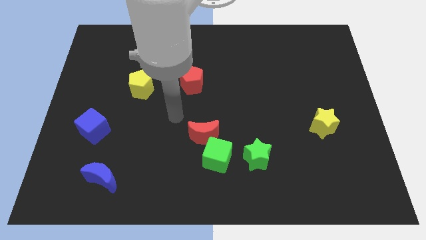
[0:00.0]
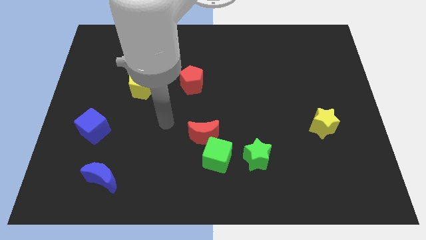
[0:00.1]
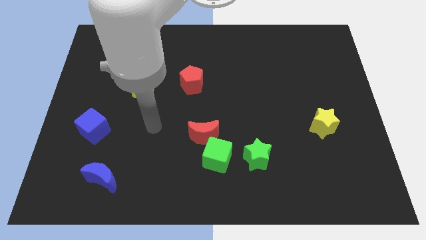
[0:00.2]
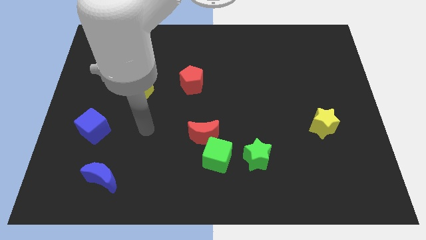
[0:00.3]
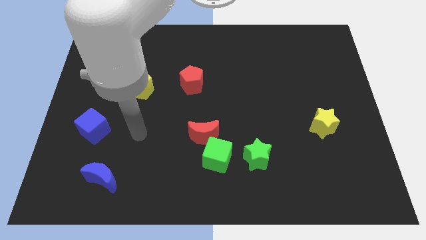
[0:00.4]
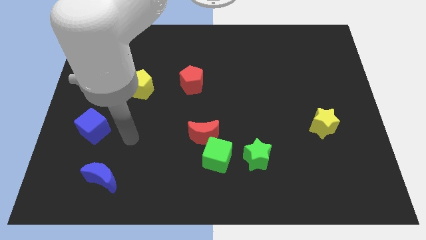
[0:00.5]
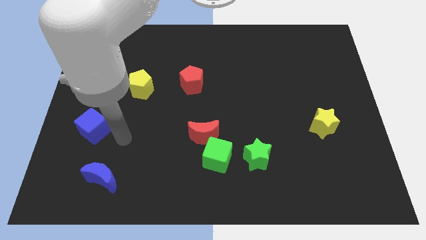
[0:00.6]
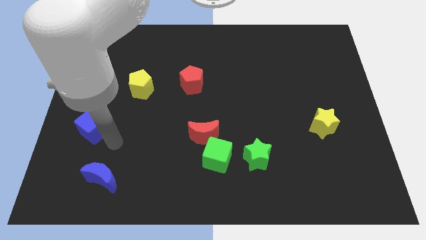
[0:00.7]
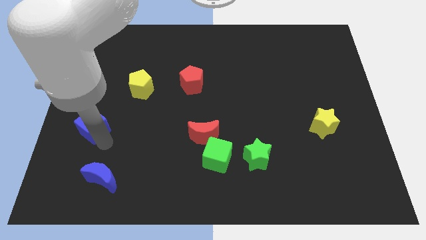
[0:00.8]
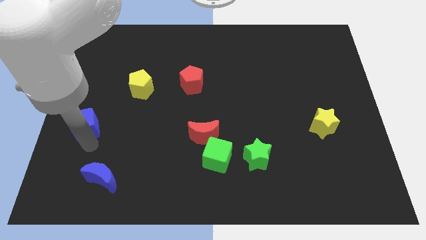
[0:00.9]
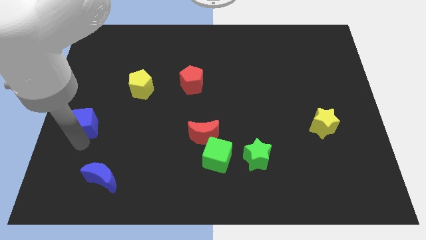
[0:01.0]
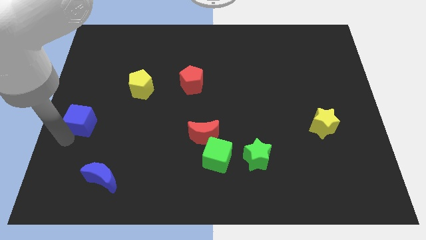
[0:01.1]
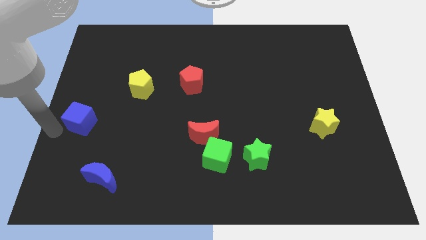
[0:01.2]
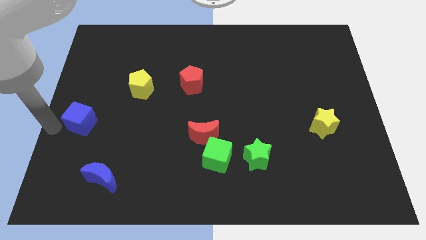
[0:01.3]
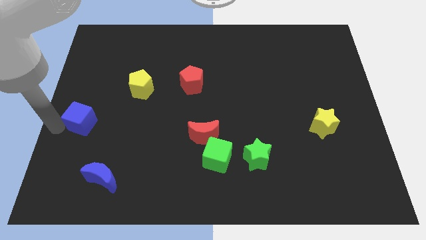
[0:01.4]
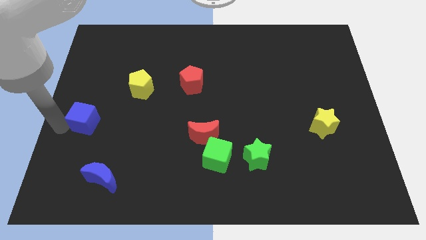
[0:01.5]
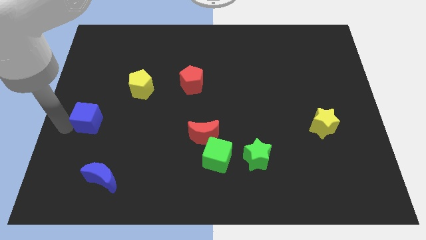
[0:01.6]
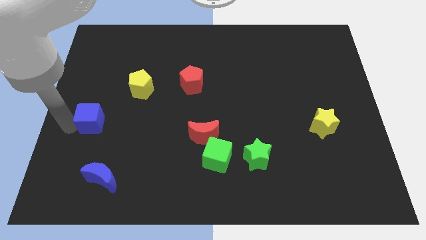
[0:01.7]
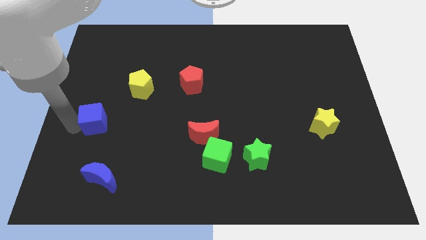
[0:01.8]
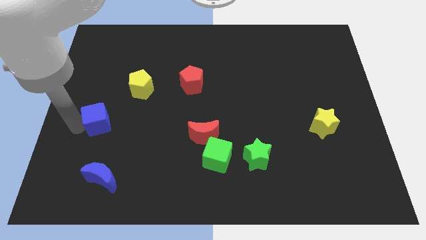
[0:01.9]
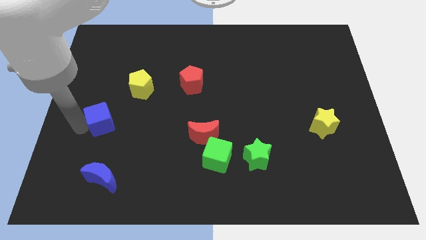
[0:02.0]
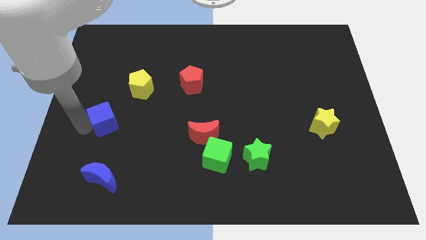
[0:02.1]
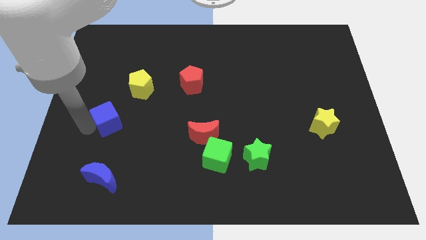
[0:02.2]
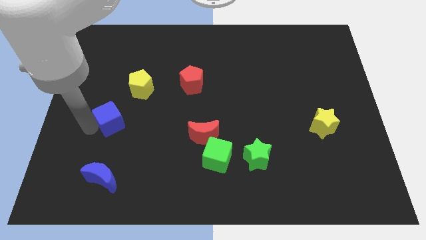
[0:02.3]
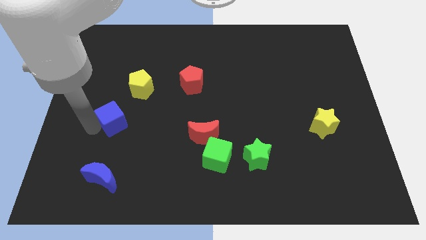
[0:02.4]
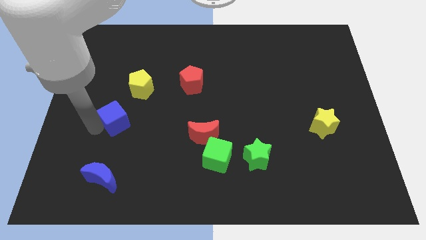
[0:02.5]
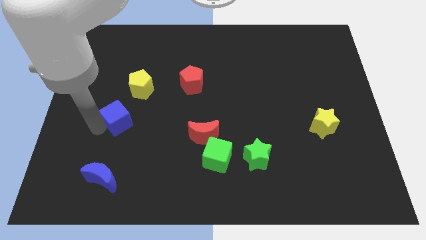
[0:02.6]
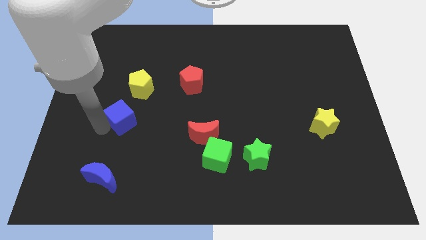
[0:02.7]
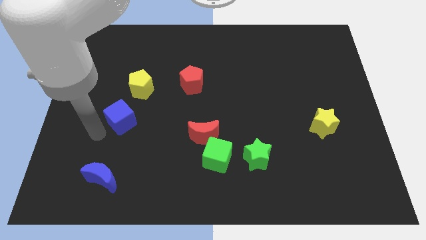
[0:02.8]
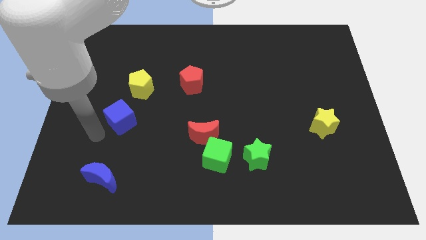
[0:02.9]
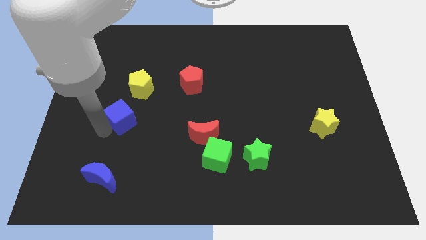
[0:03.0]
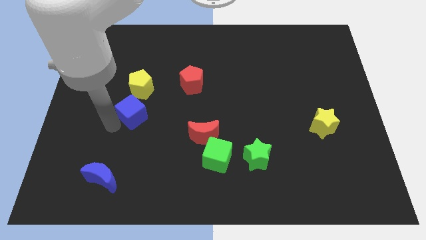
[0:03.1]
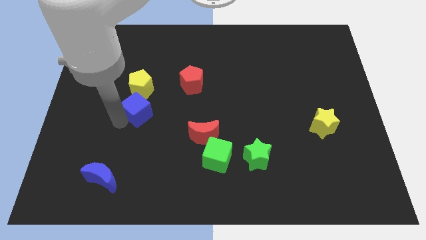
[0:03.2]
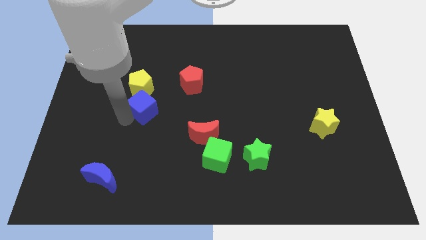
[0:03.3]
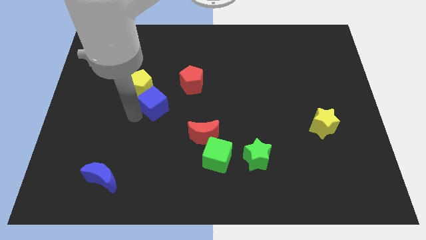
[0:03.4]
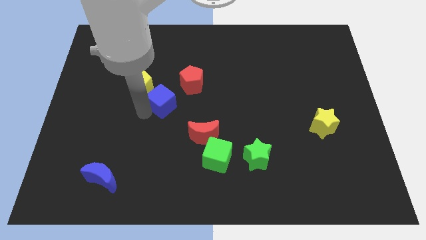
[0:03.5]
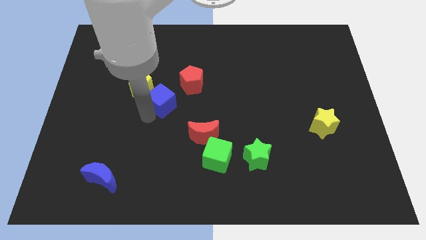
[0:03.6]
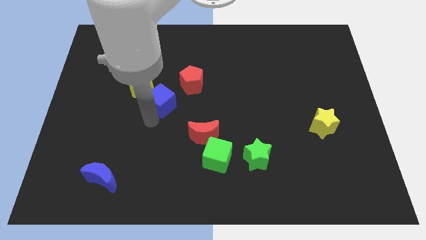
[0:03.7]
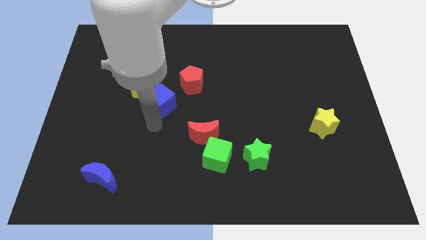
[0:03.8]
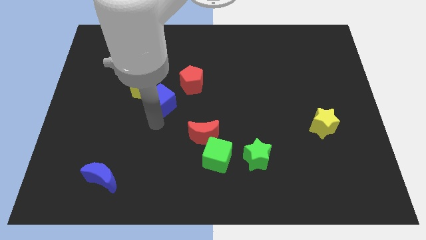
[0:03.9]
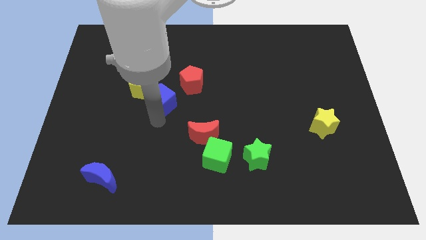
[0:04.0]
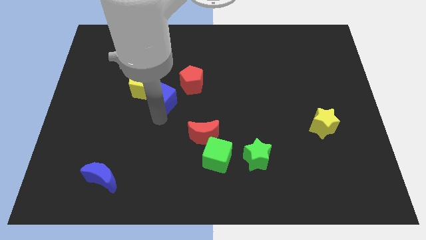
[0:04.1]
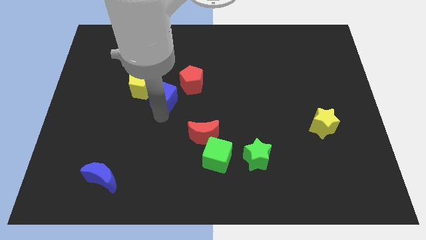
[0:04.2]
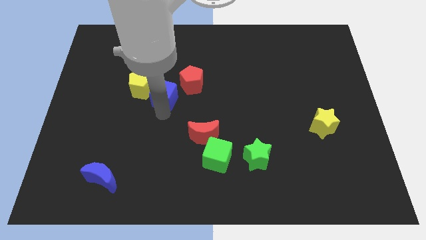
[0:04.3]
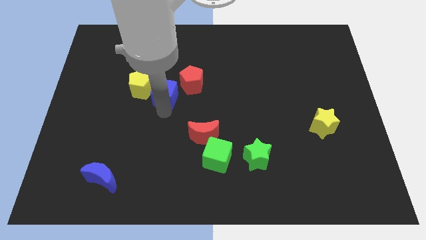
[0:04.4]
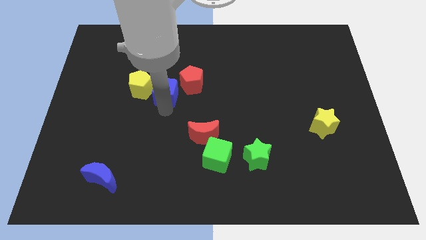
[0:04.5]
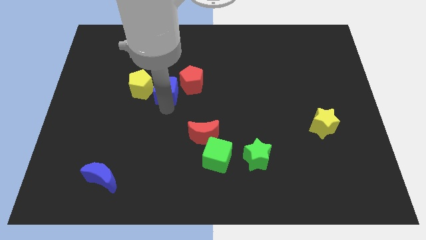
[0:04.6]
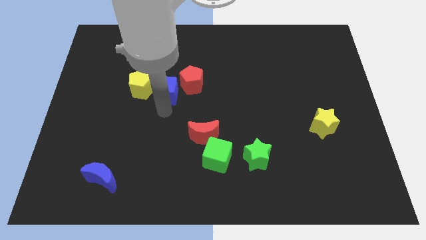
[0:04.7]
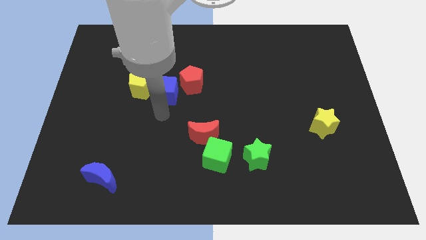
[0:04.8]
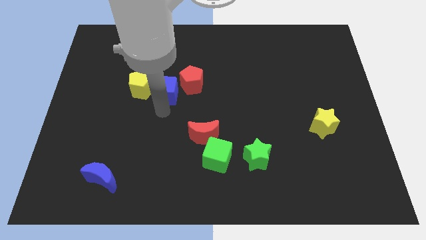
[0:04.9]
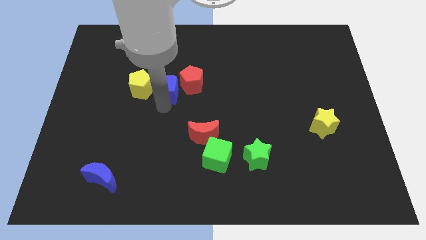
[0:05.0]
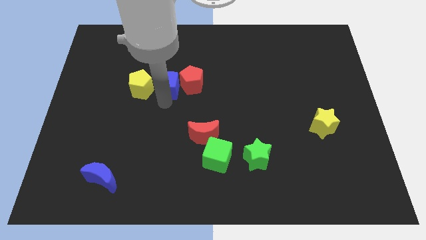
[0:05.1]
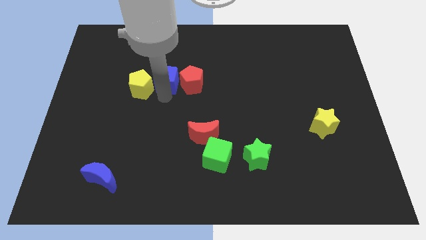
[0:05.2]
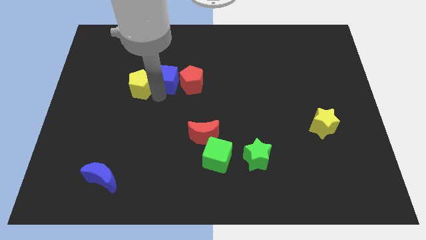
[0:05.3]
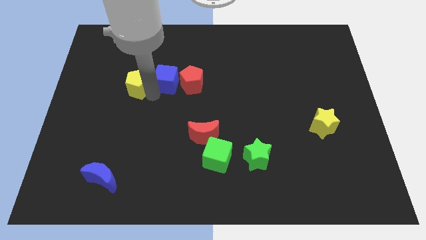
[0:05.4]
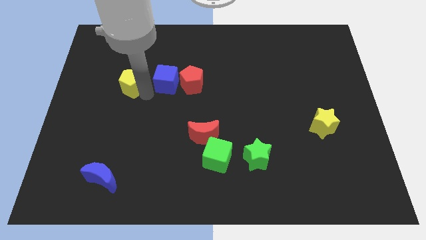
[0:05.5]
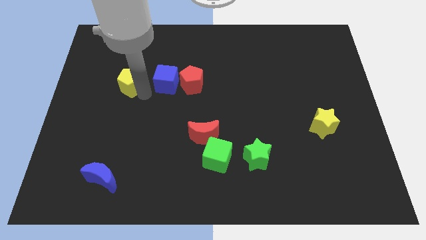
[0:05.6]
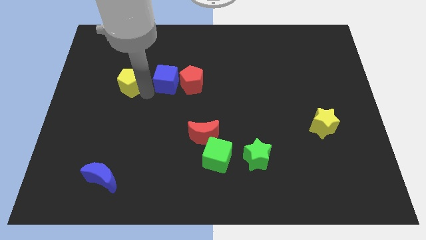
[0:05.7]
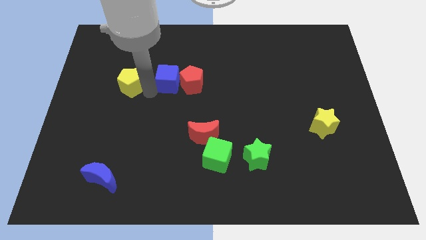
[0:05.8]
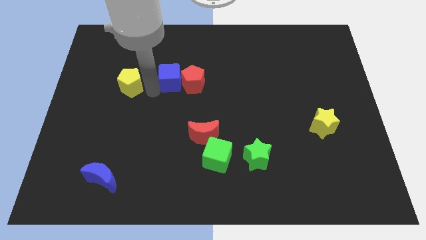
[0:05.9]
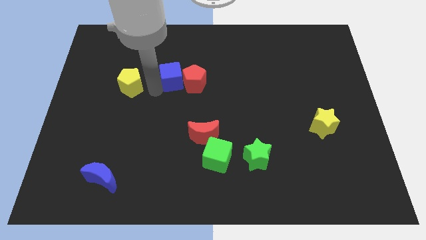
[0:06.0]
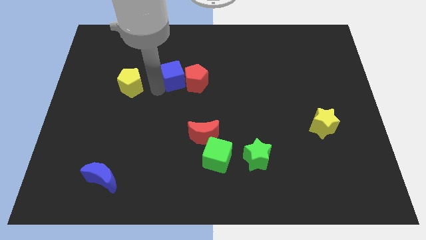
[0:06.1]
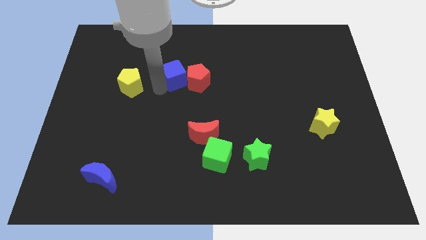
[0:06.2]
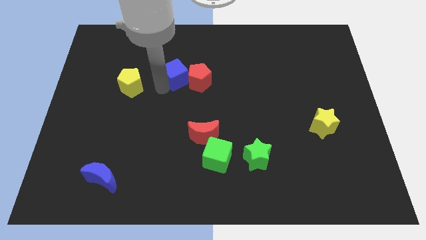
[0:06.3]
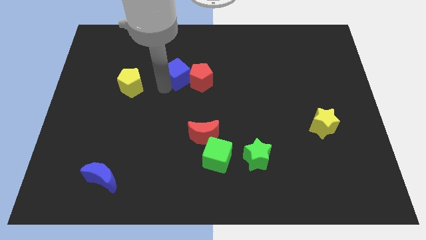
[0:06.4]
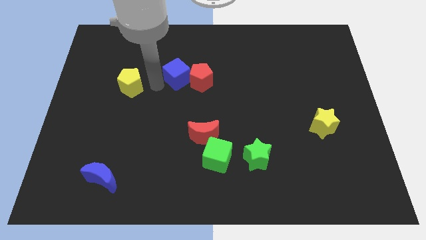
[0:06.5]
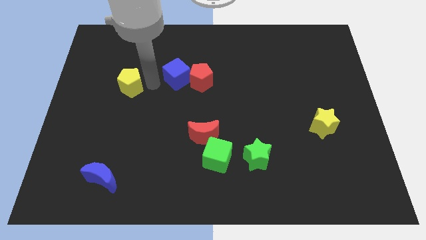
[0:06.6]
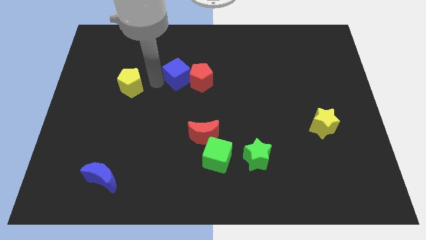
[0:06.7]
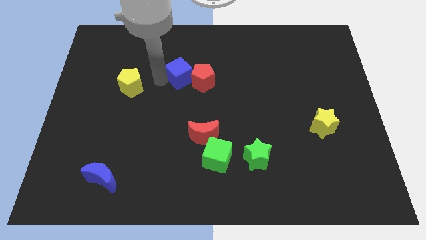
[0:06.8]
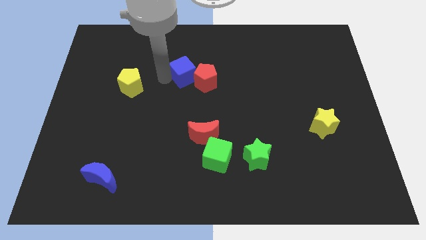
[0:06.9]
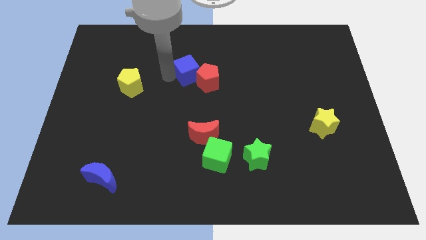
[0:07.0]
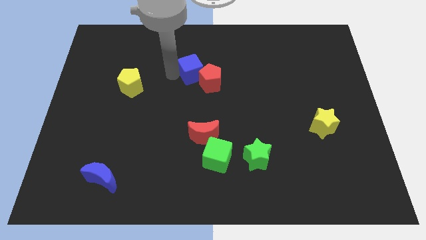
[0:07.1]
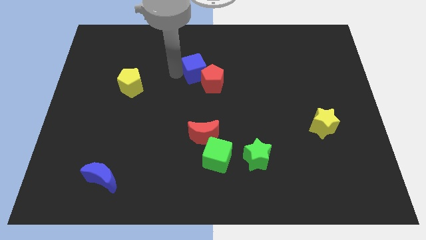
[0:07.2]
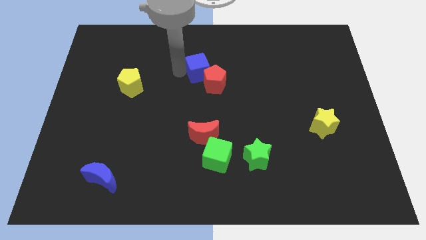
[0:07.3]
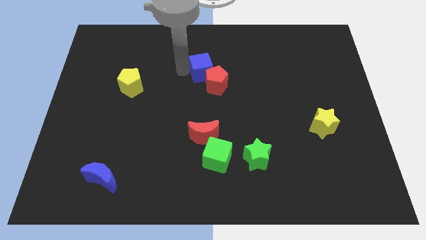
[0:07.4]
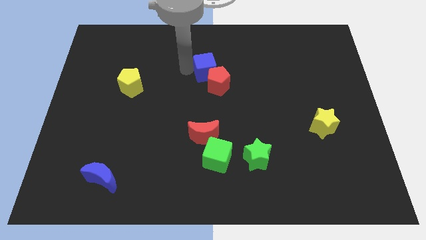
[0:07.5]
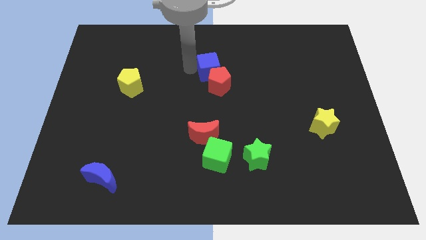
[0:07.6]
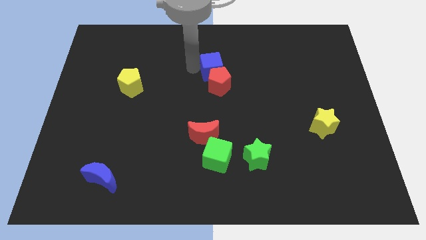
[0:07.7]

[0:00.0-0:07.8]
put the blue cube to the top right side of the red pentagon
